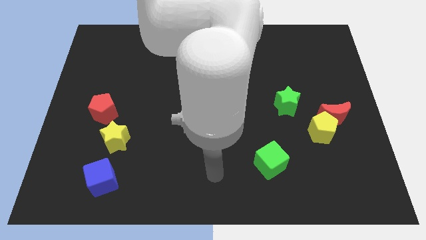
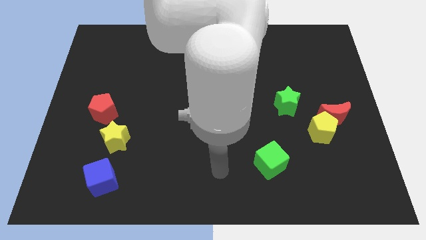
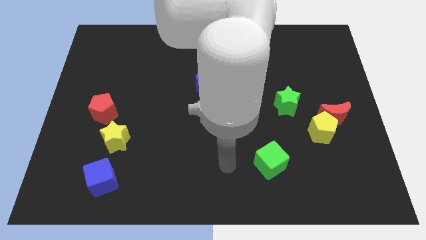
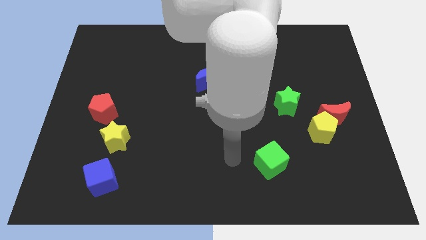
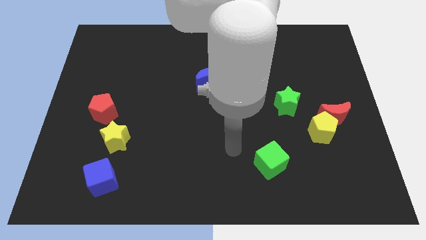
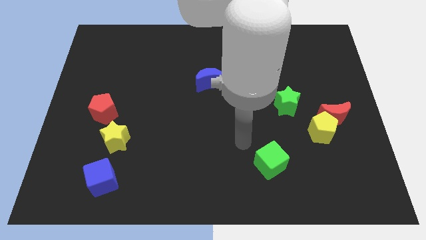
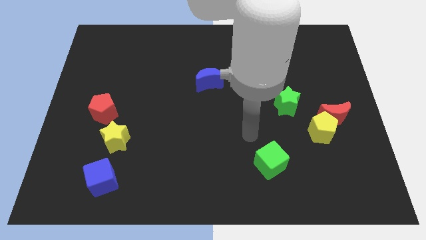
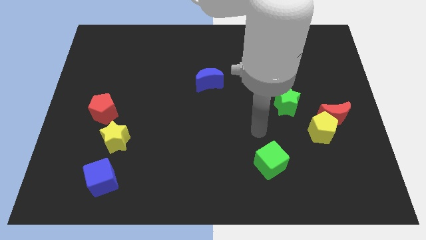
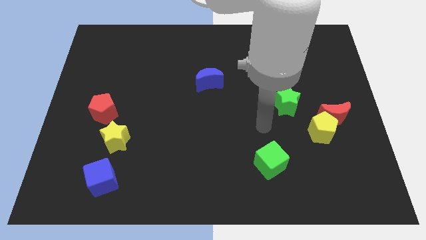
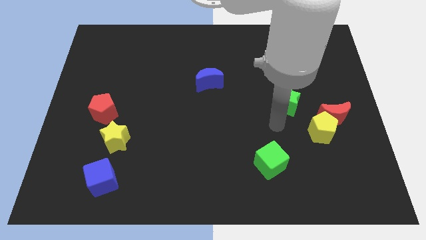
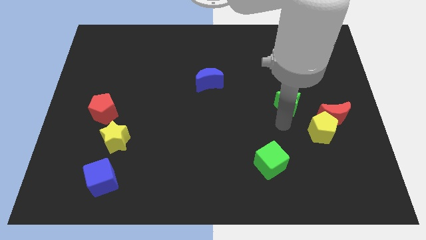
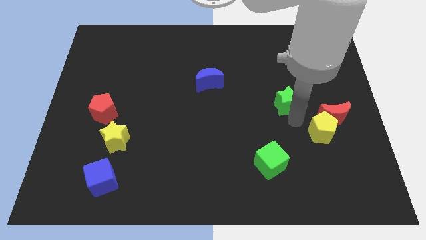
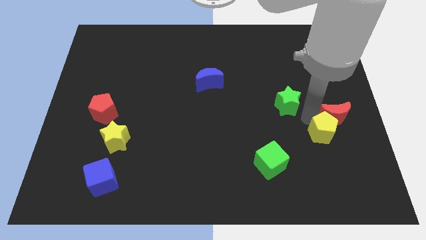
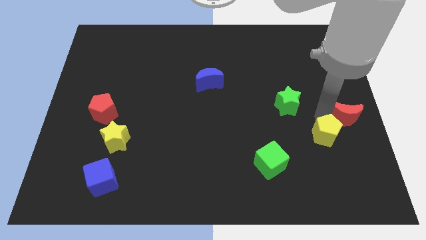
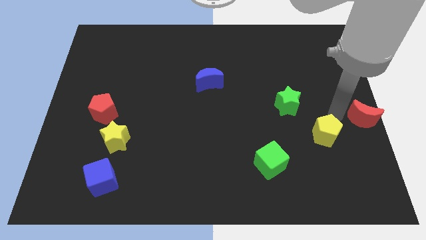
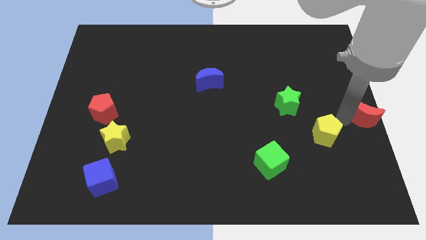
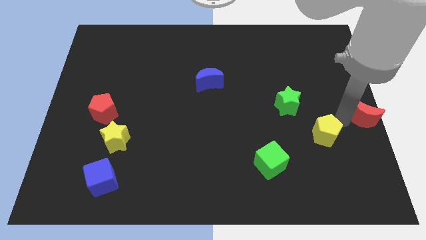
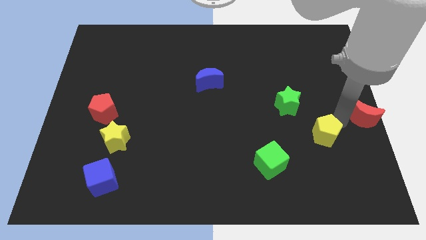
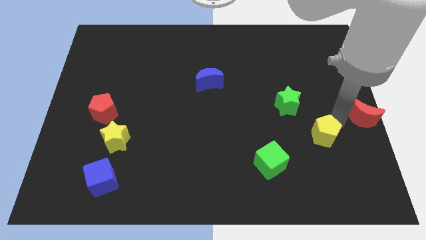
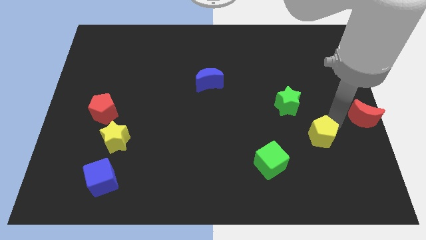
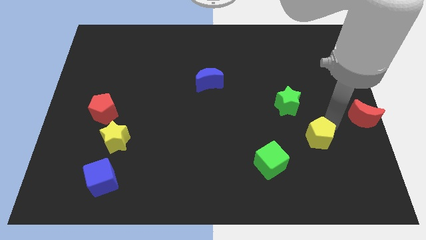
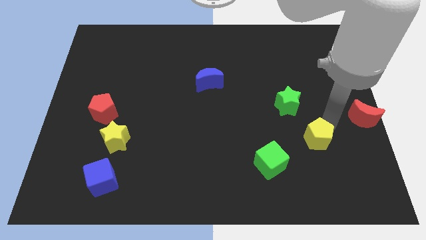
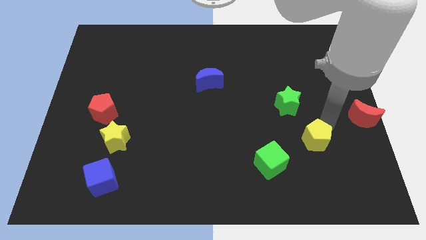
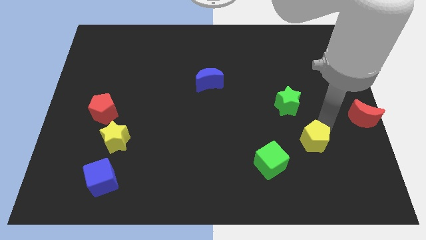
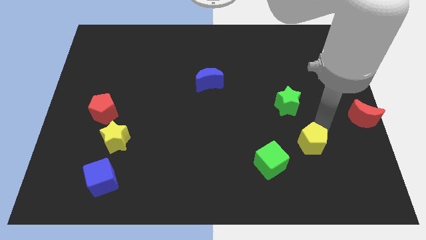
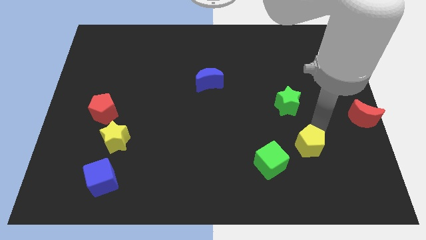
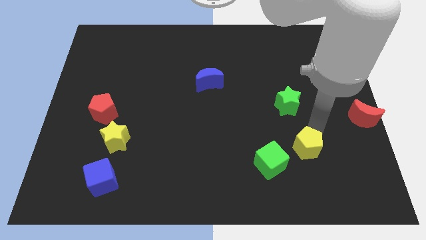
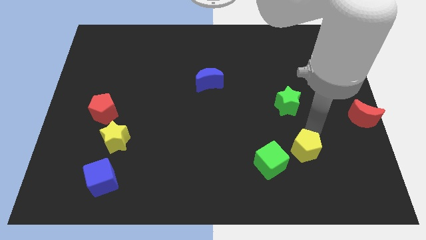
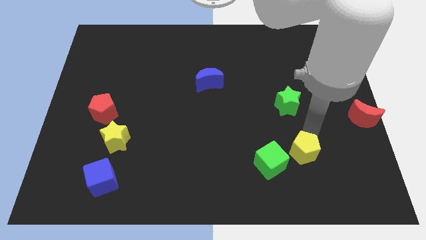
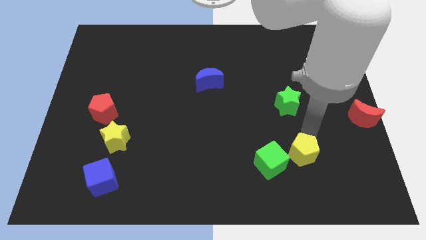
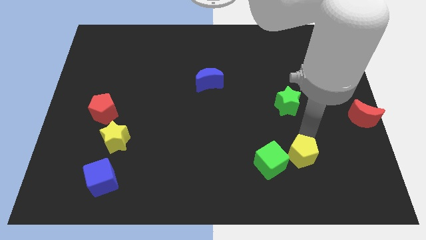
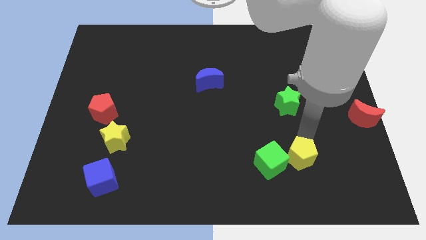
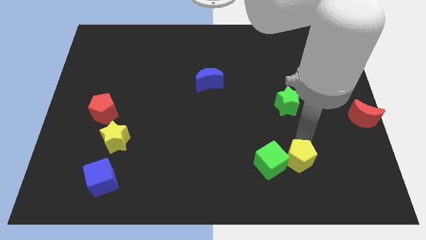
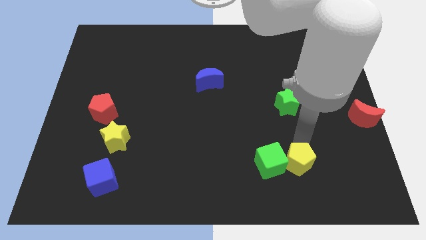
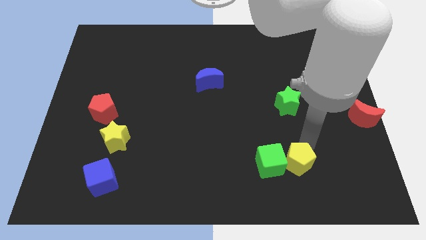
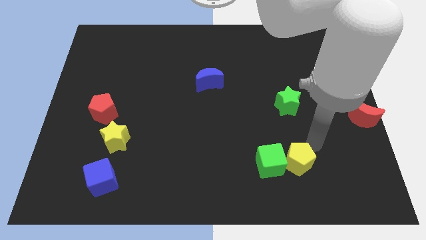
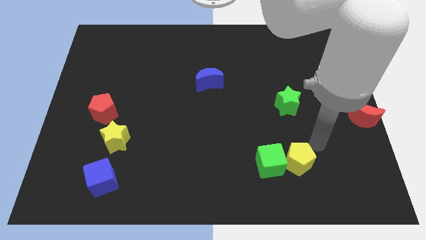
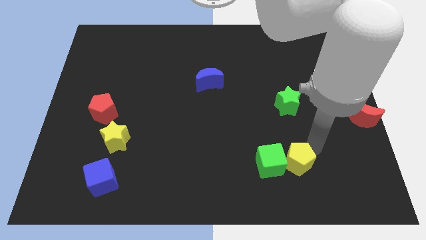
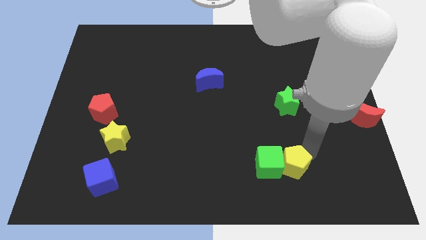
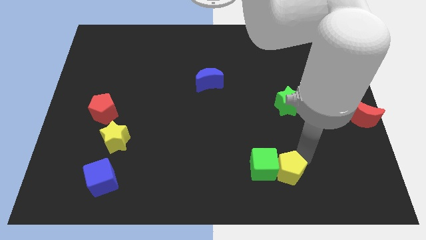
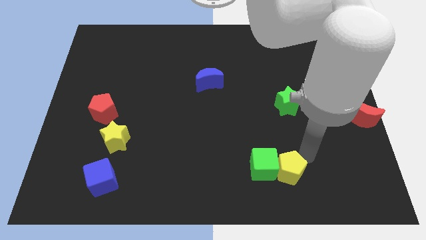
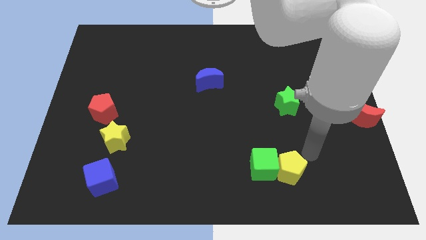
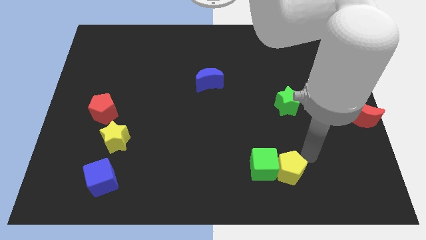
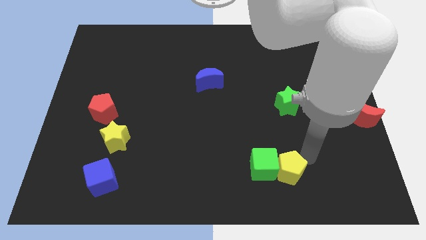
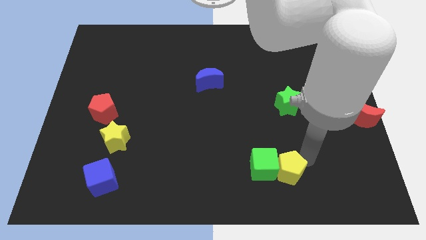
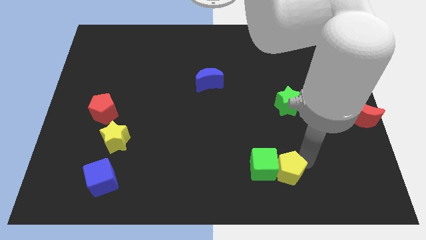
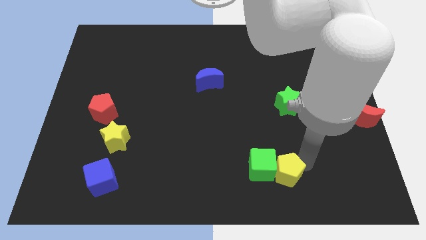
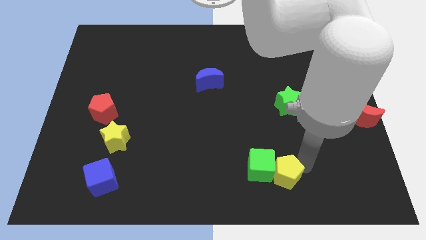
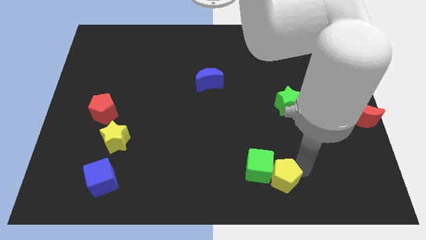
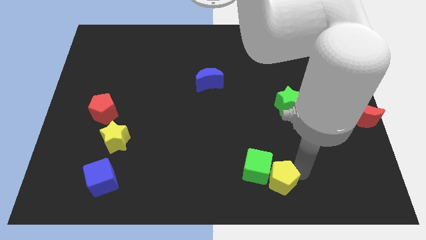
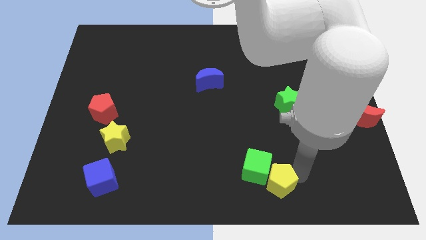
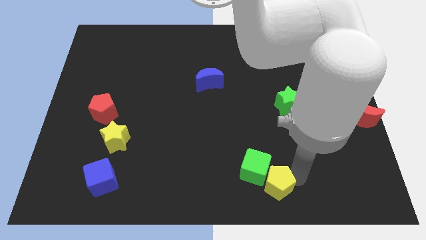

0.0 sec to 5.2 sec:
put the yellow pentagon to the bottom side

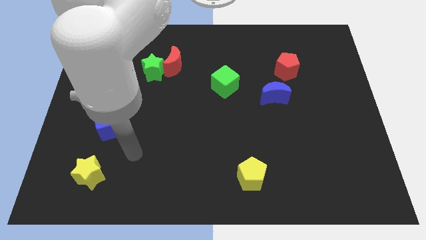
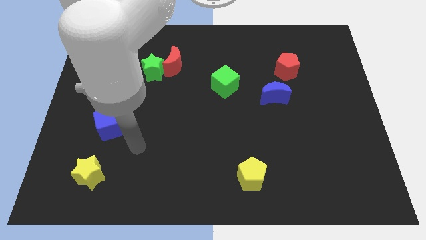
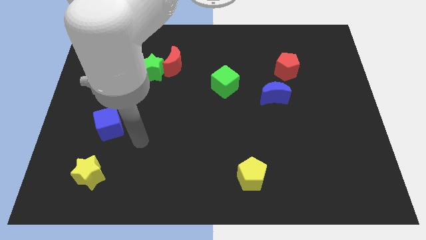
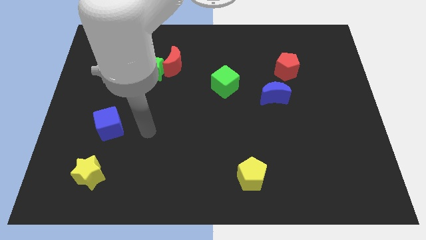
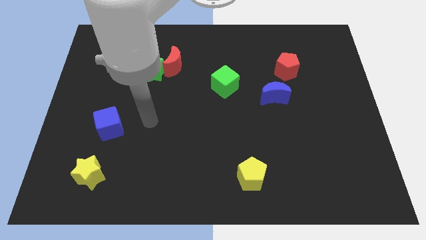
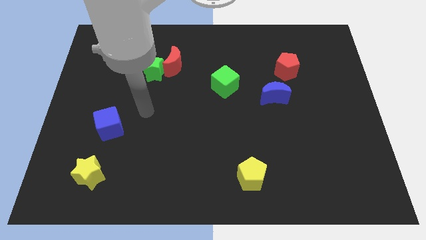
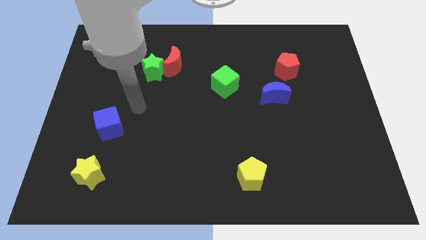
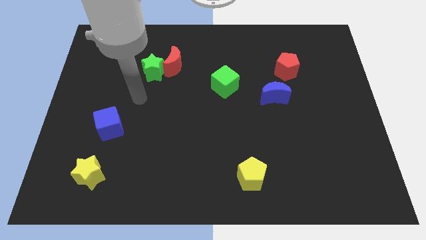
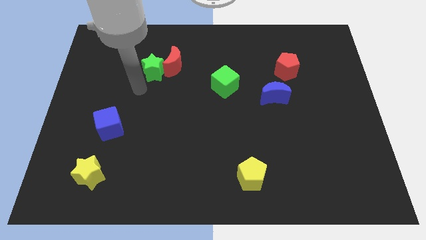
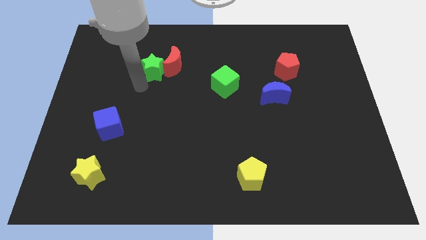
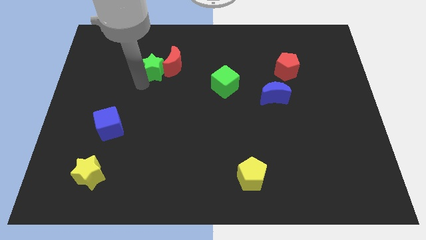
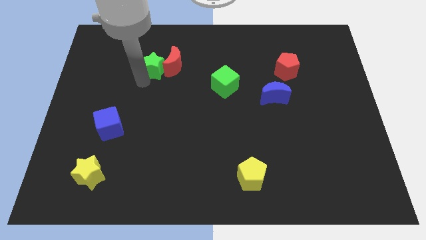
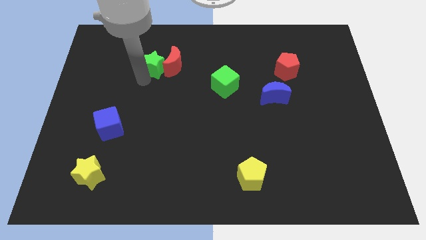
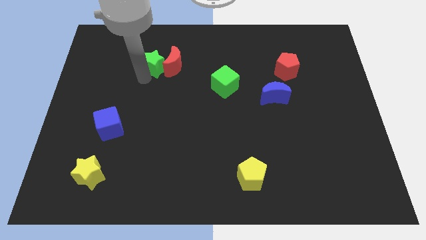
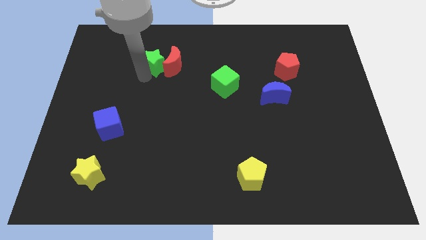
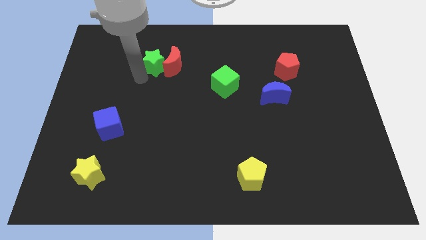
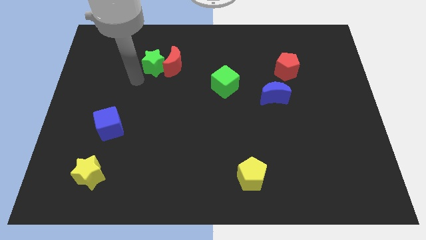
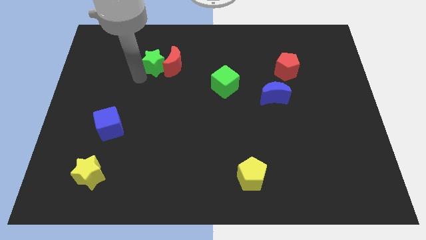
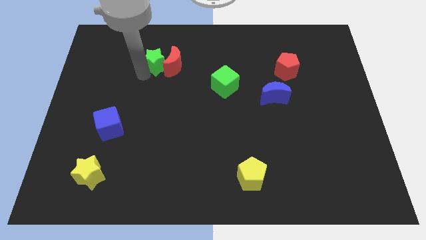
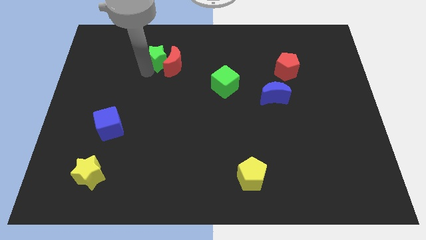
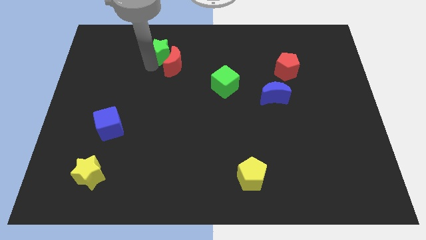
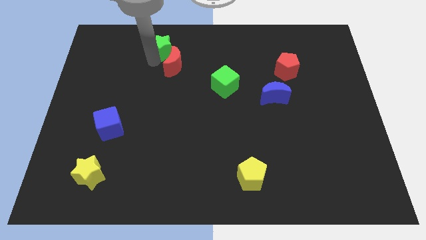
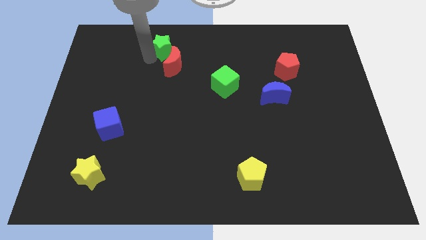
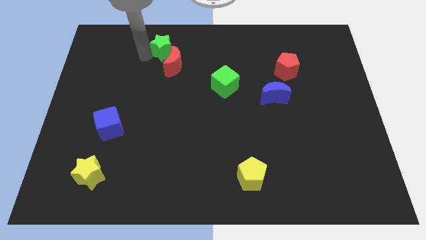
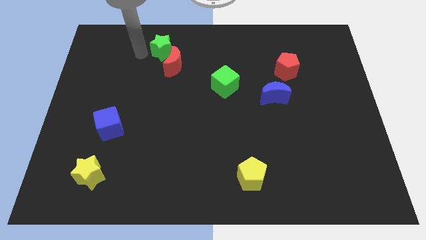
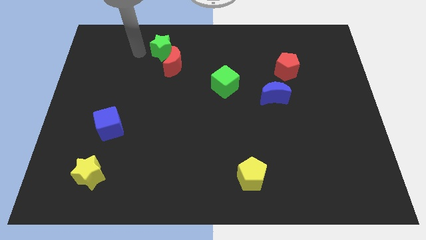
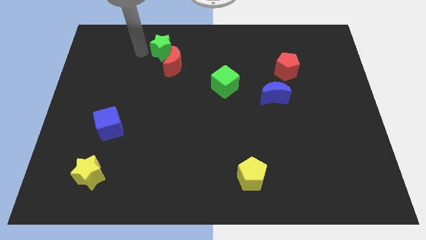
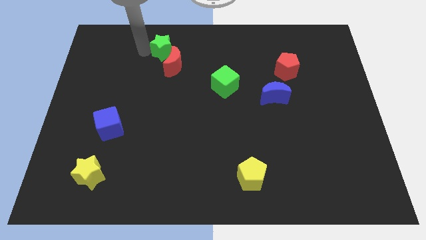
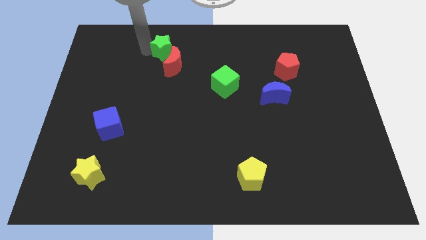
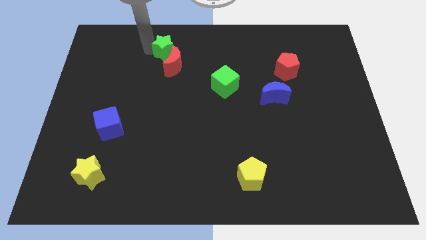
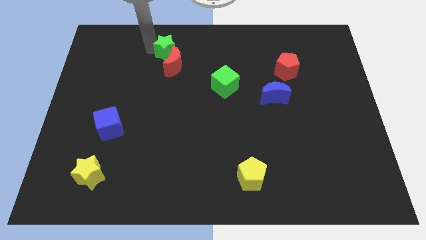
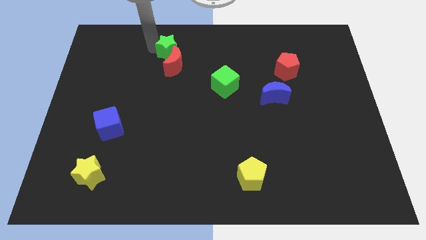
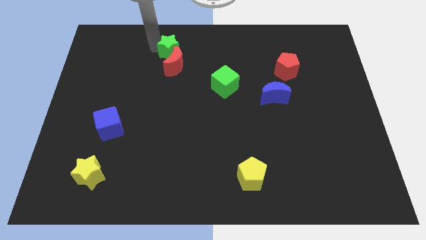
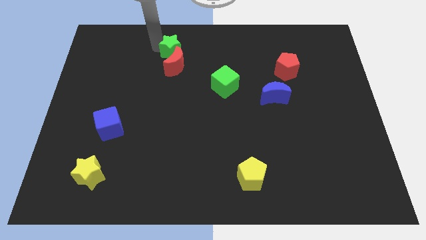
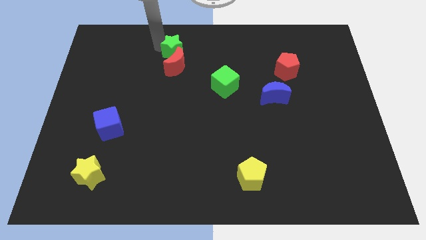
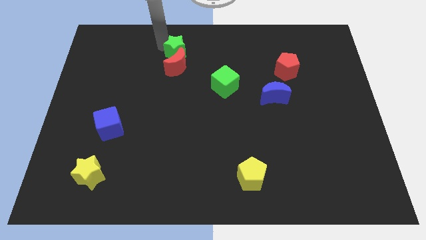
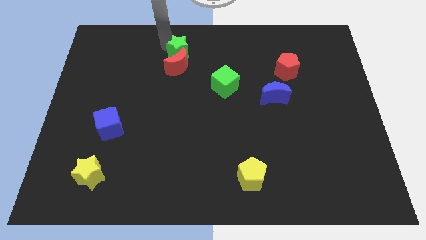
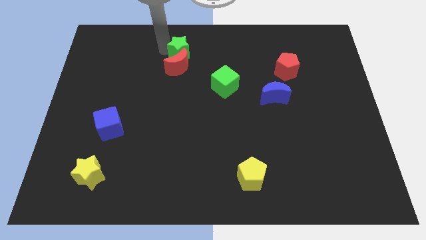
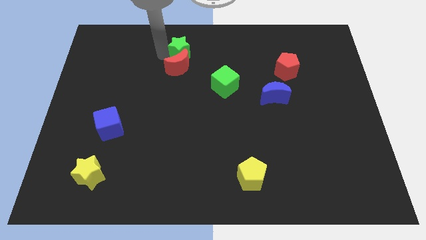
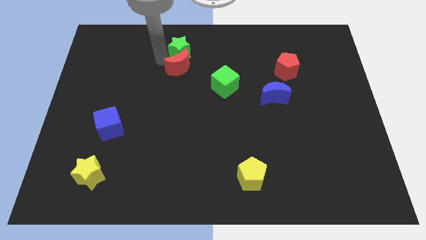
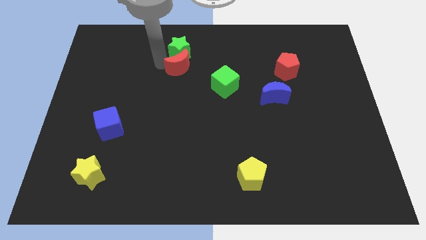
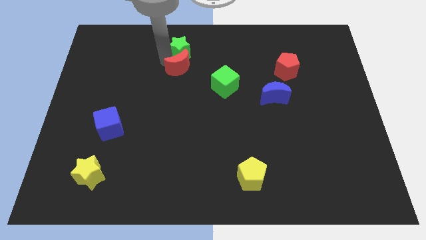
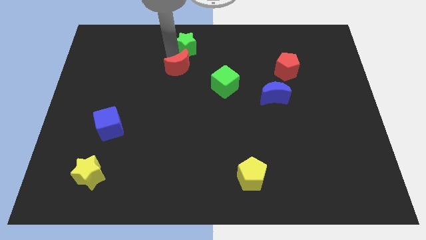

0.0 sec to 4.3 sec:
slide the green star to the top side
